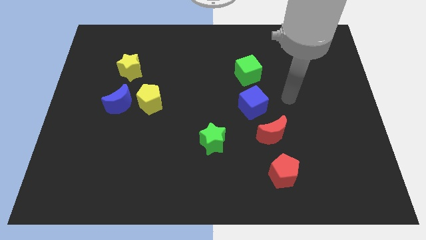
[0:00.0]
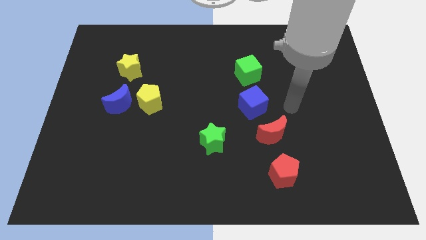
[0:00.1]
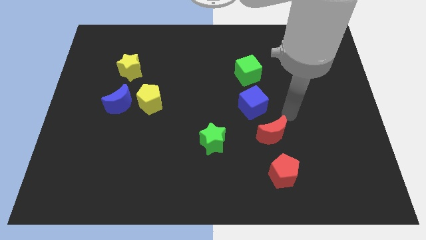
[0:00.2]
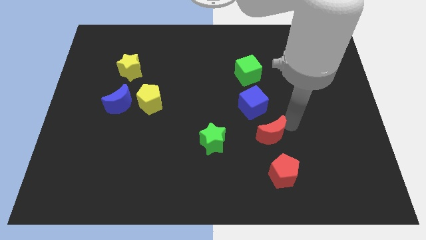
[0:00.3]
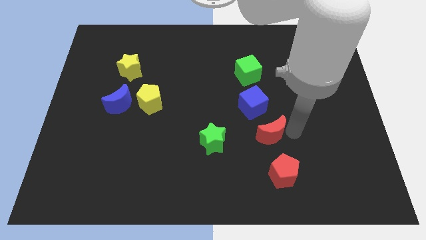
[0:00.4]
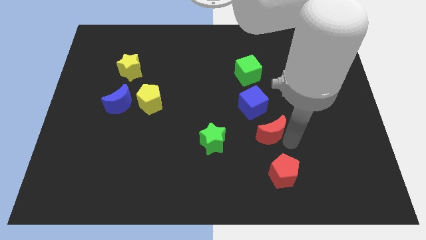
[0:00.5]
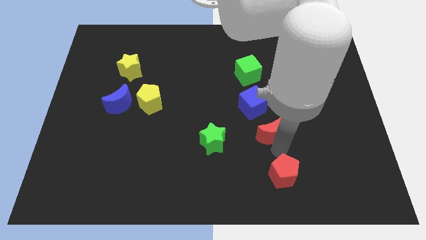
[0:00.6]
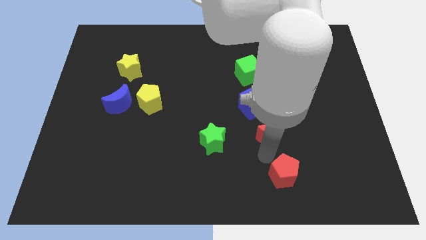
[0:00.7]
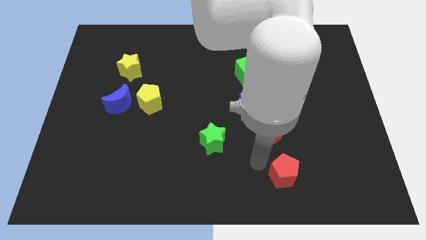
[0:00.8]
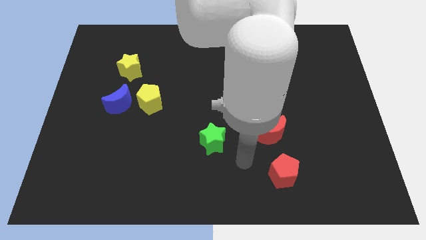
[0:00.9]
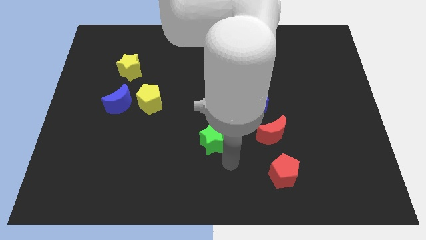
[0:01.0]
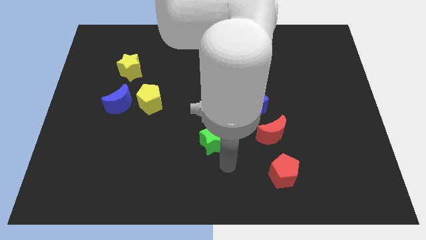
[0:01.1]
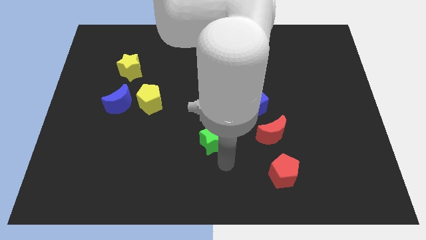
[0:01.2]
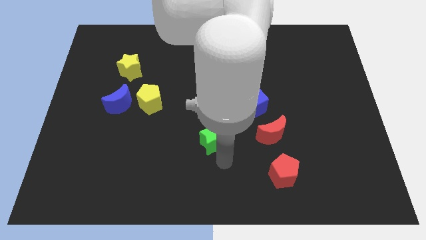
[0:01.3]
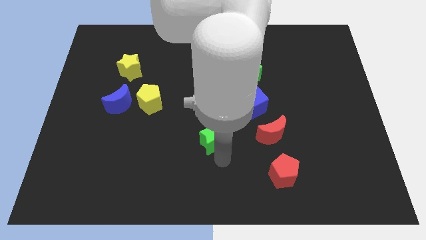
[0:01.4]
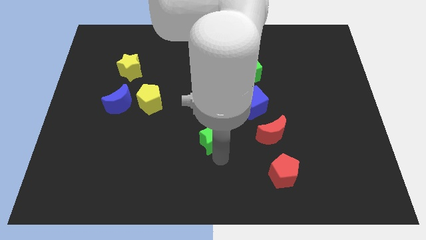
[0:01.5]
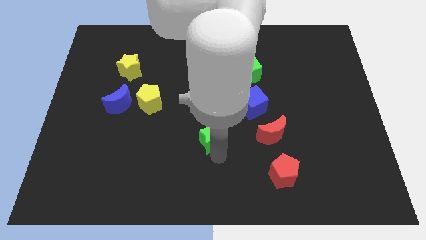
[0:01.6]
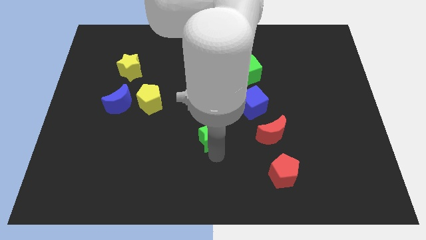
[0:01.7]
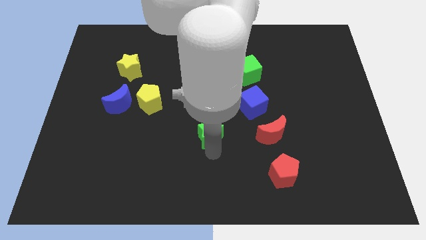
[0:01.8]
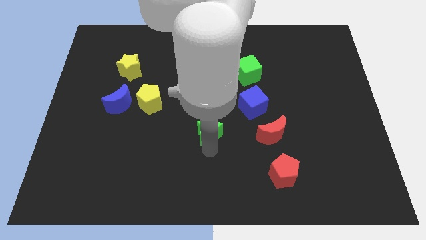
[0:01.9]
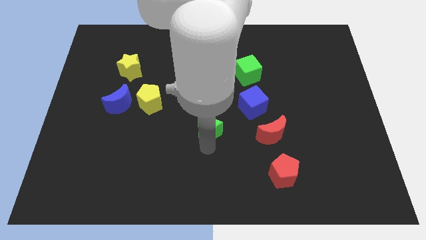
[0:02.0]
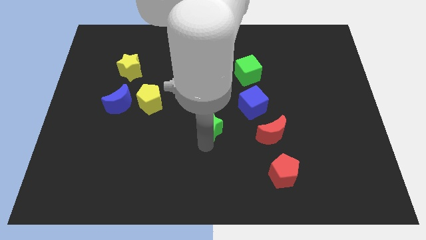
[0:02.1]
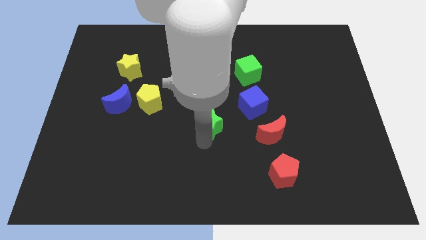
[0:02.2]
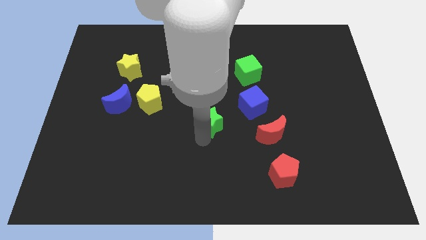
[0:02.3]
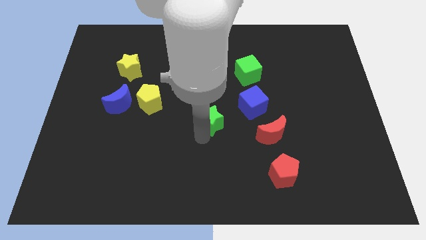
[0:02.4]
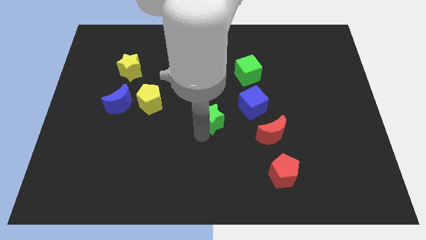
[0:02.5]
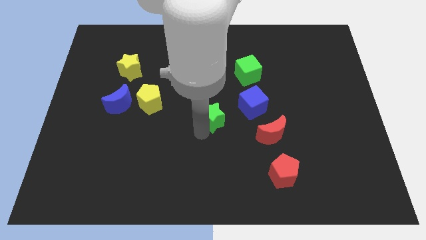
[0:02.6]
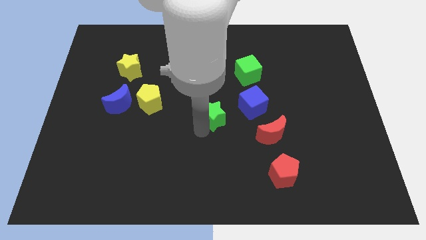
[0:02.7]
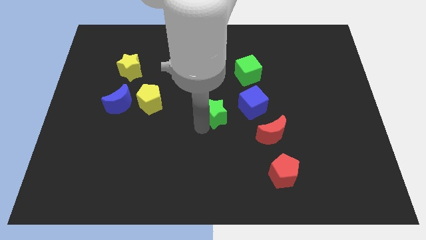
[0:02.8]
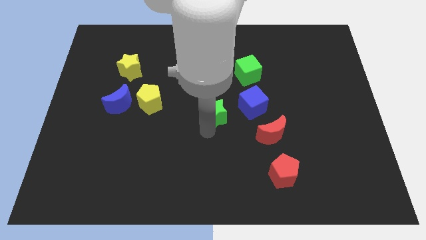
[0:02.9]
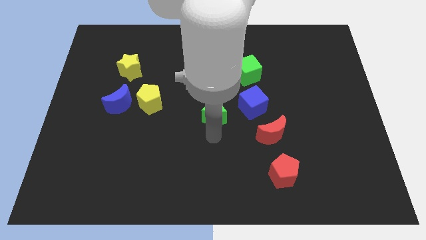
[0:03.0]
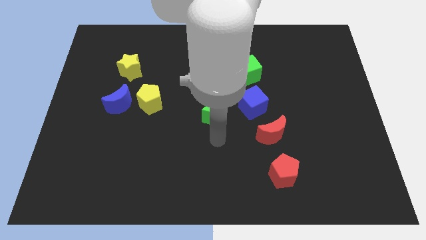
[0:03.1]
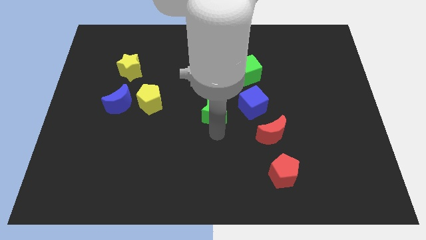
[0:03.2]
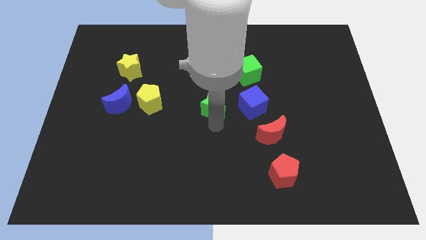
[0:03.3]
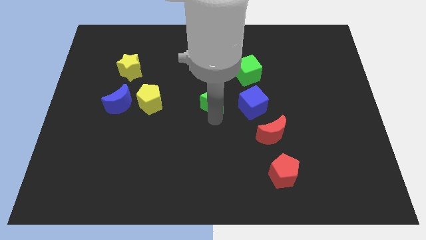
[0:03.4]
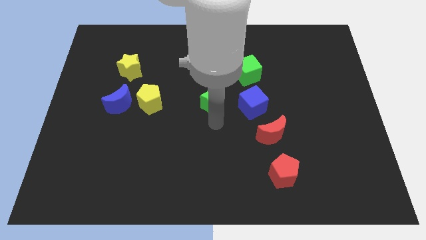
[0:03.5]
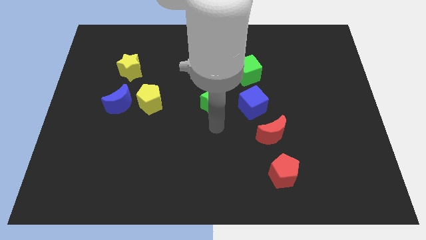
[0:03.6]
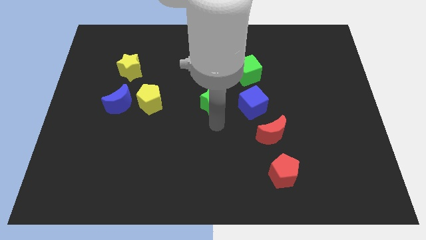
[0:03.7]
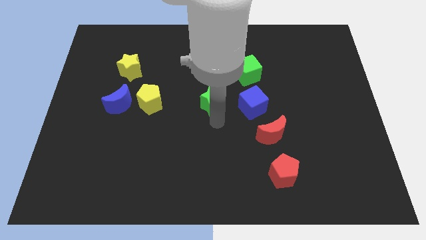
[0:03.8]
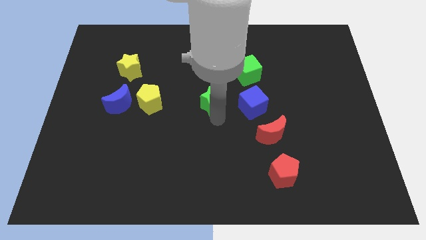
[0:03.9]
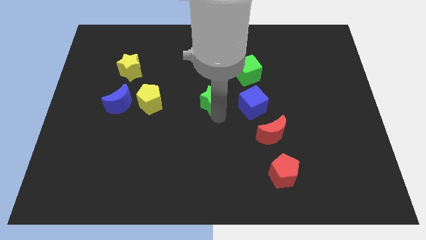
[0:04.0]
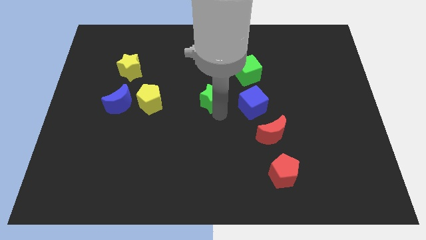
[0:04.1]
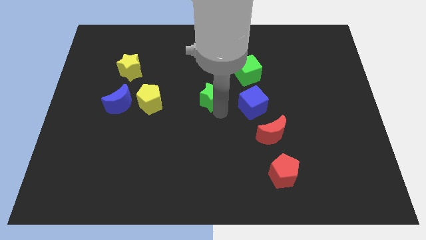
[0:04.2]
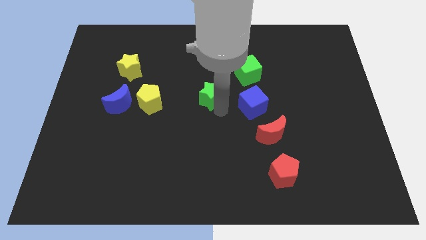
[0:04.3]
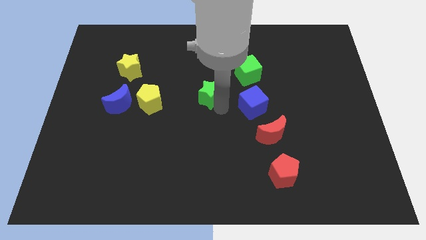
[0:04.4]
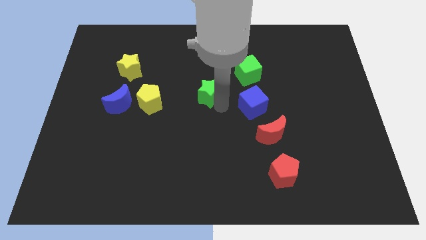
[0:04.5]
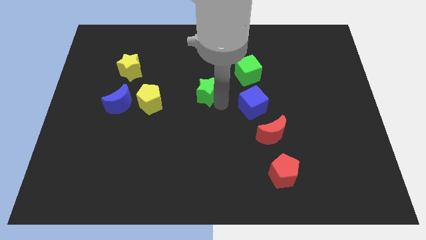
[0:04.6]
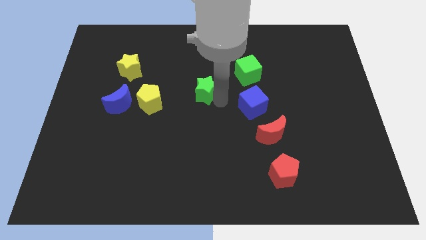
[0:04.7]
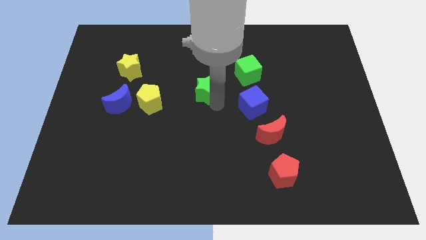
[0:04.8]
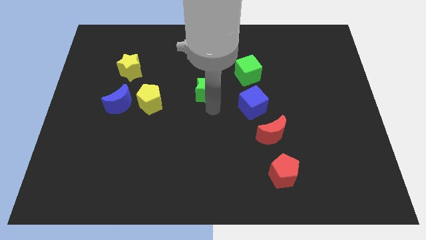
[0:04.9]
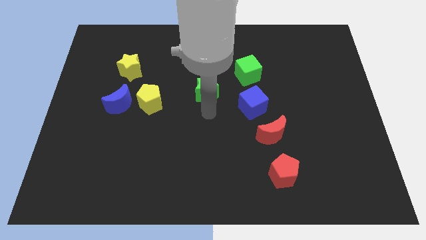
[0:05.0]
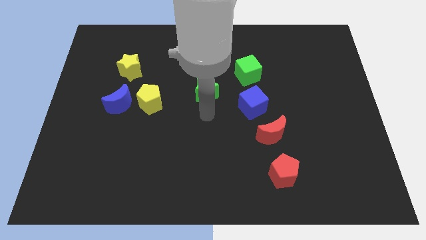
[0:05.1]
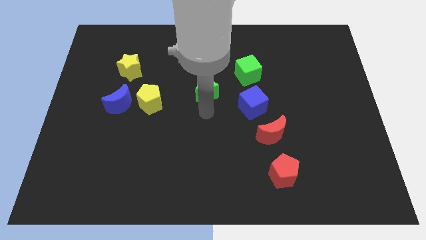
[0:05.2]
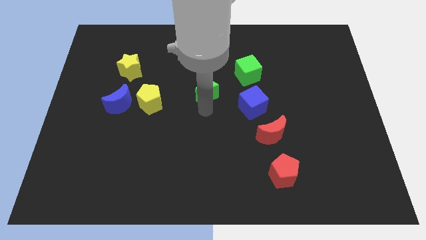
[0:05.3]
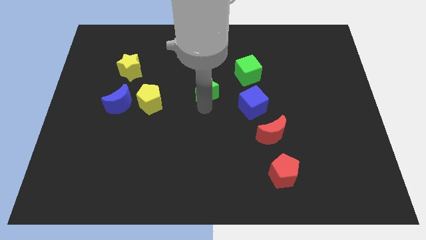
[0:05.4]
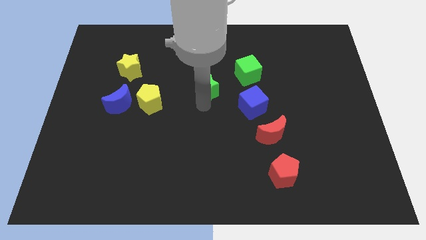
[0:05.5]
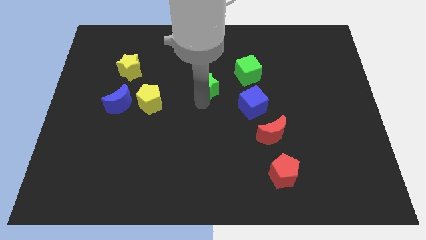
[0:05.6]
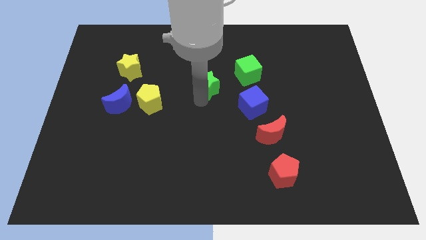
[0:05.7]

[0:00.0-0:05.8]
push the green star to the left of the green cube

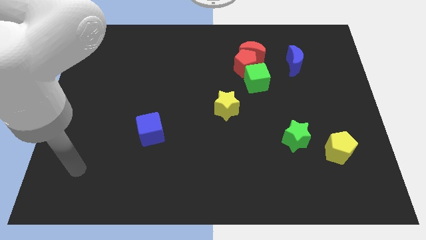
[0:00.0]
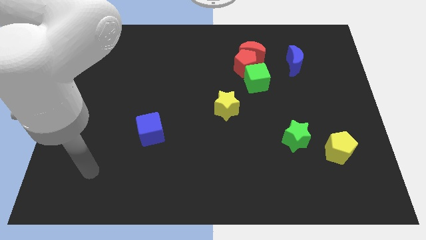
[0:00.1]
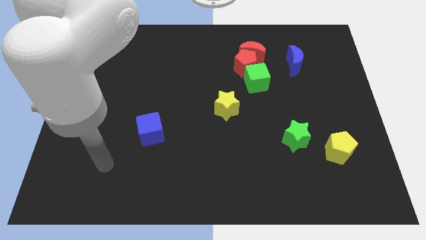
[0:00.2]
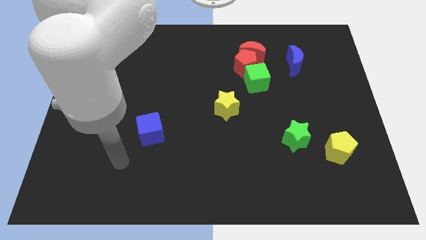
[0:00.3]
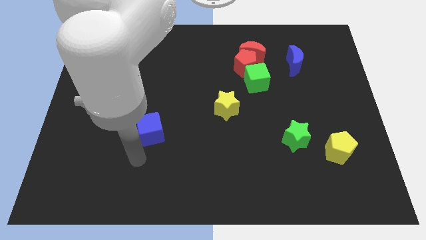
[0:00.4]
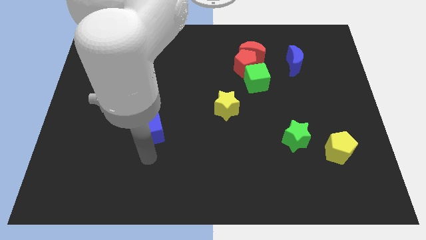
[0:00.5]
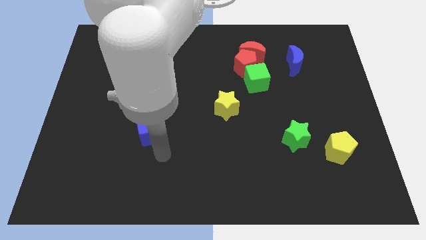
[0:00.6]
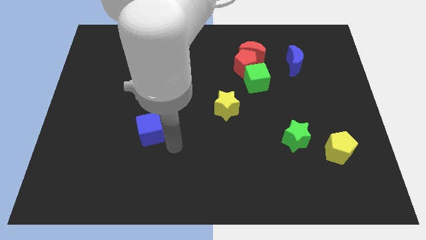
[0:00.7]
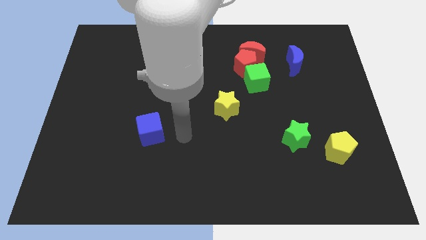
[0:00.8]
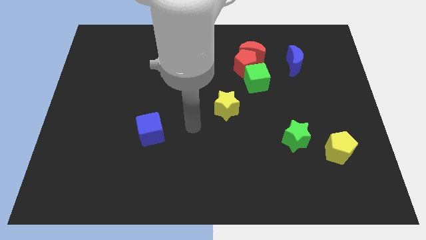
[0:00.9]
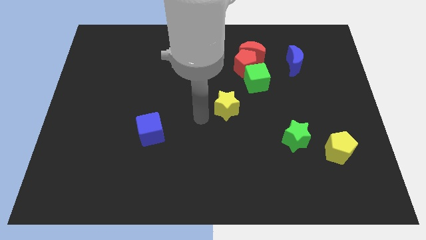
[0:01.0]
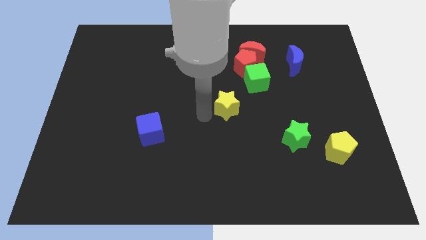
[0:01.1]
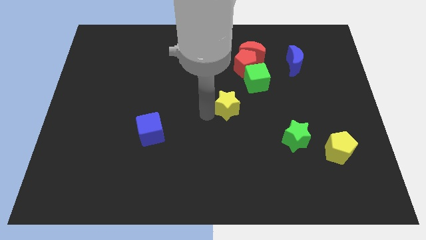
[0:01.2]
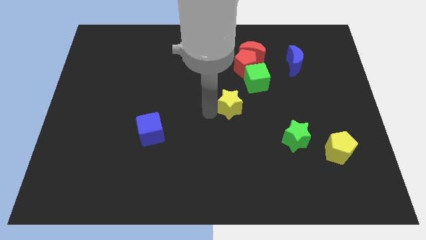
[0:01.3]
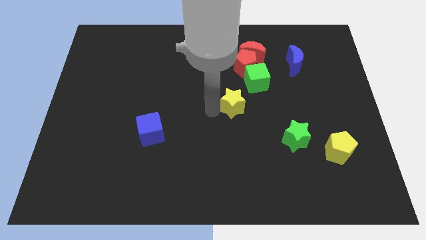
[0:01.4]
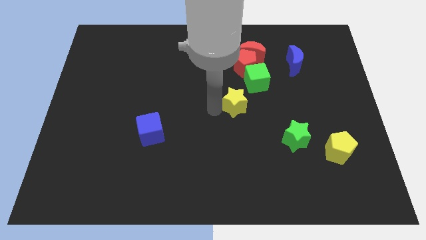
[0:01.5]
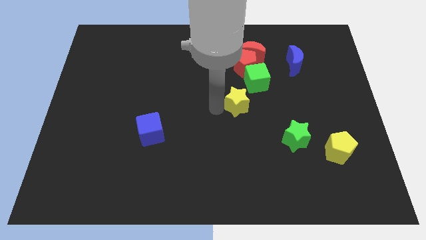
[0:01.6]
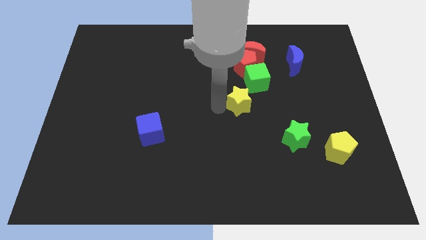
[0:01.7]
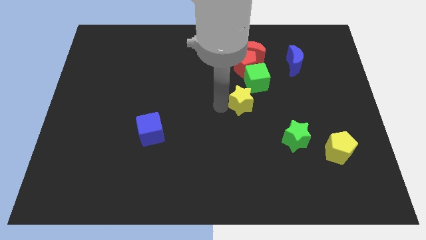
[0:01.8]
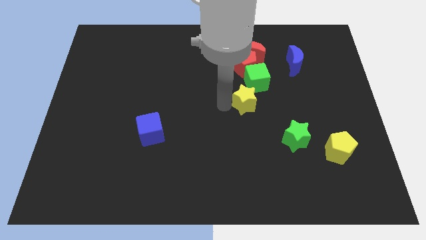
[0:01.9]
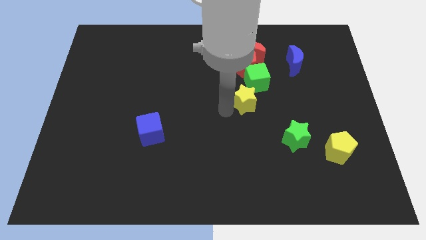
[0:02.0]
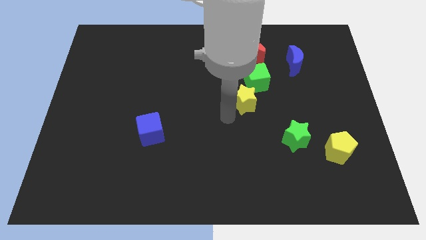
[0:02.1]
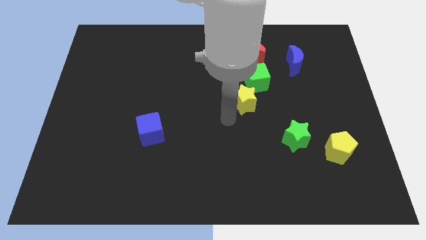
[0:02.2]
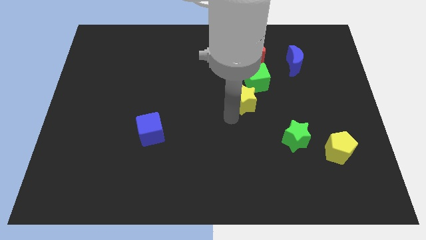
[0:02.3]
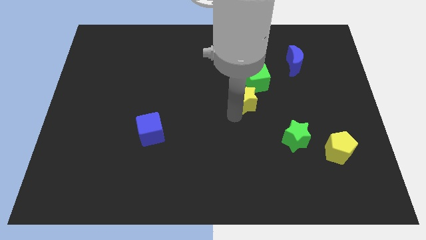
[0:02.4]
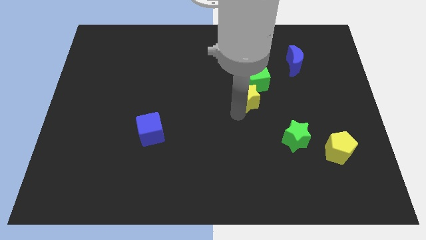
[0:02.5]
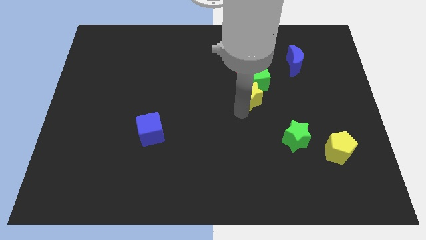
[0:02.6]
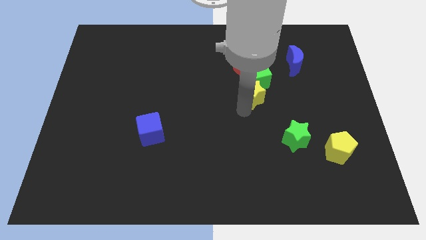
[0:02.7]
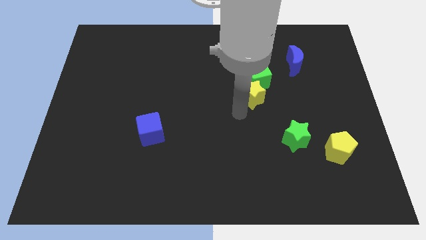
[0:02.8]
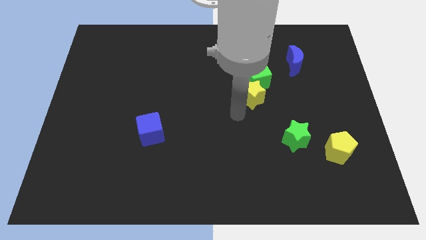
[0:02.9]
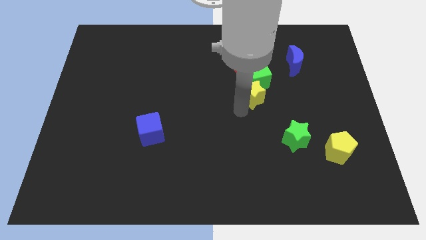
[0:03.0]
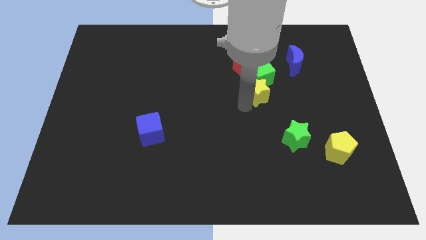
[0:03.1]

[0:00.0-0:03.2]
push the yellow star diagonally down and to the right of the red pentagon
